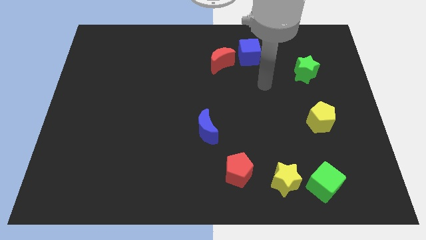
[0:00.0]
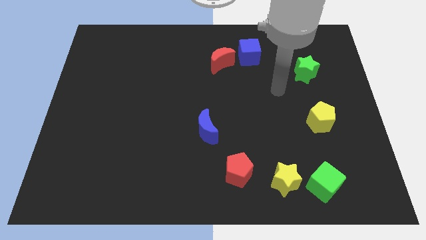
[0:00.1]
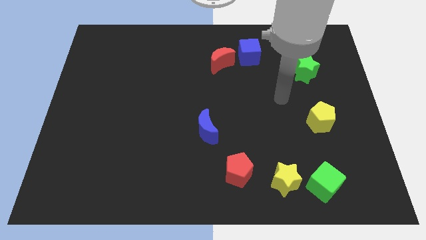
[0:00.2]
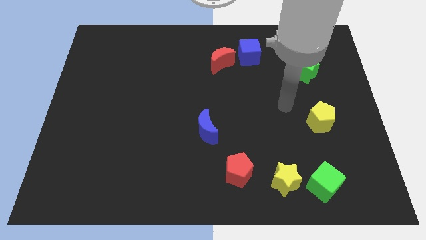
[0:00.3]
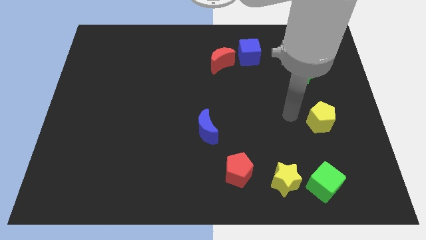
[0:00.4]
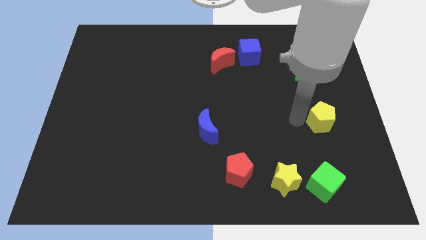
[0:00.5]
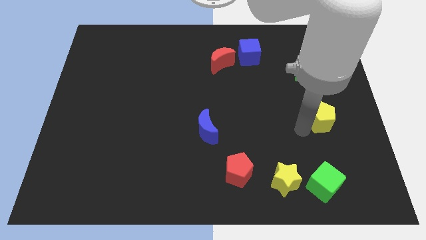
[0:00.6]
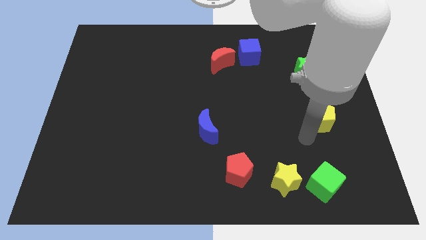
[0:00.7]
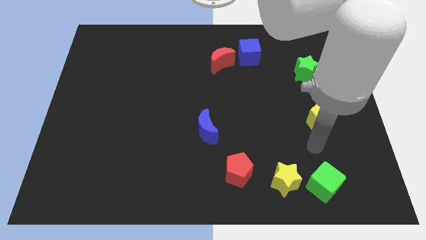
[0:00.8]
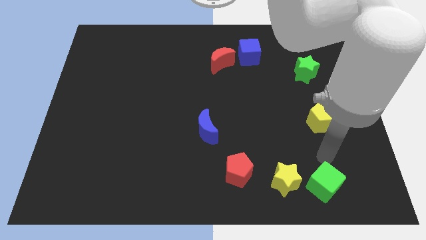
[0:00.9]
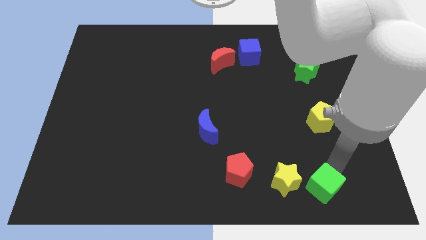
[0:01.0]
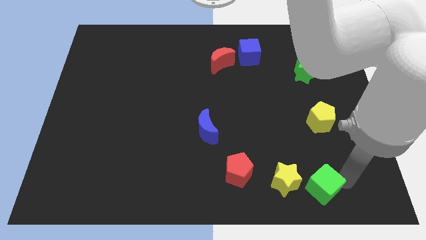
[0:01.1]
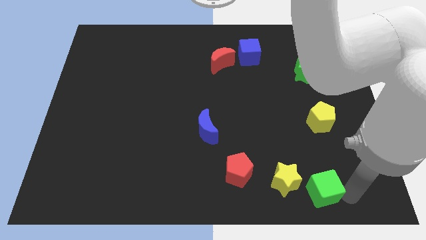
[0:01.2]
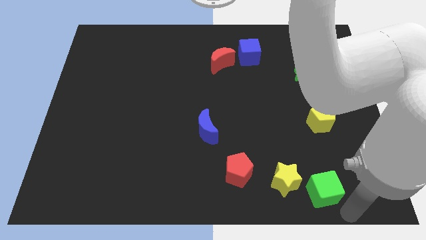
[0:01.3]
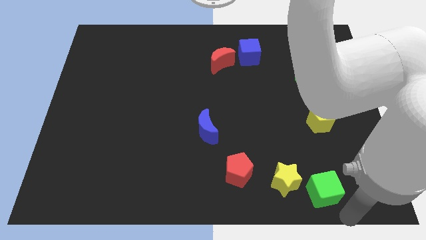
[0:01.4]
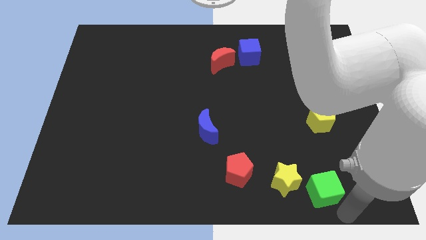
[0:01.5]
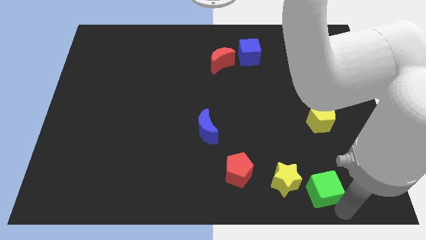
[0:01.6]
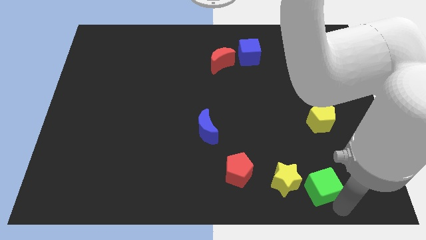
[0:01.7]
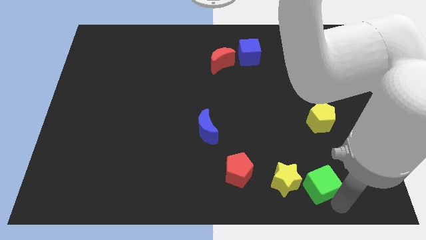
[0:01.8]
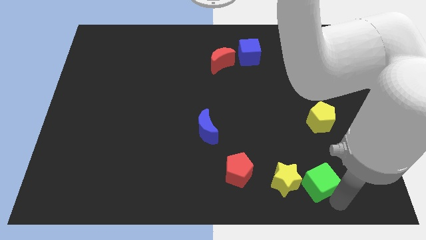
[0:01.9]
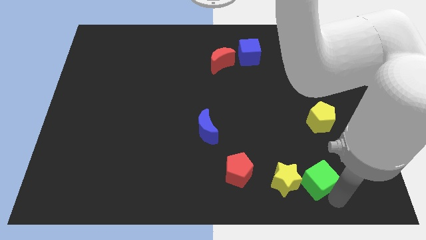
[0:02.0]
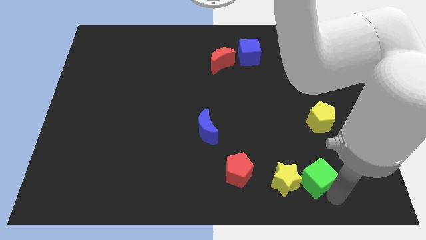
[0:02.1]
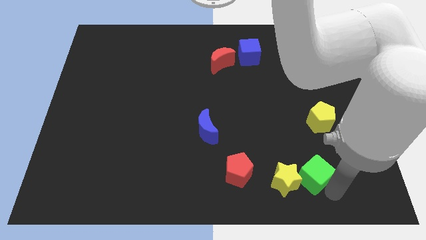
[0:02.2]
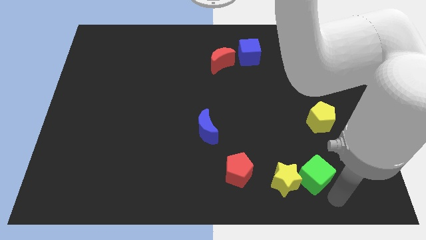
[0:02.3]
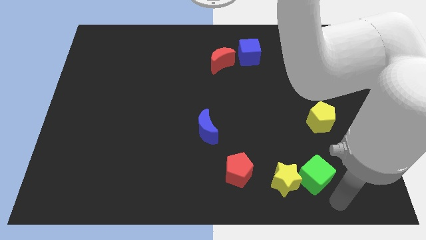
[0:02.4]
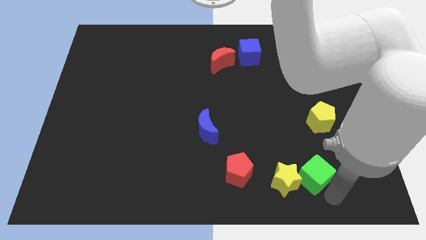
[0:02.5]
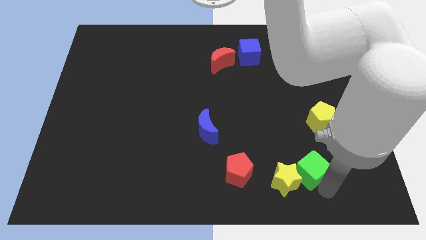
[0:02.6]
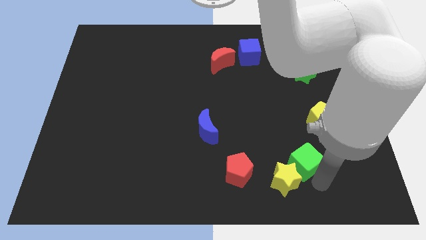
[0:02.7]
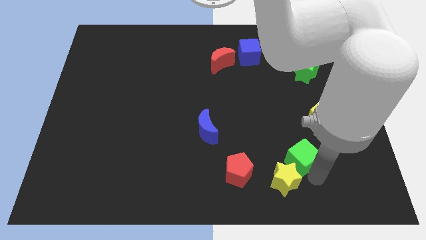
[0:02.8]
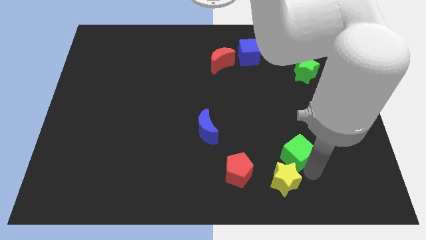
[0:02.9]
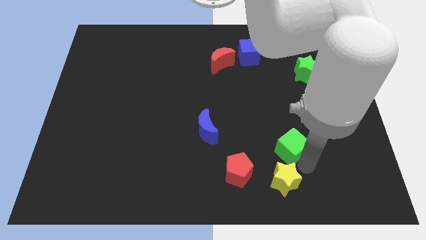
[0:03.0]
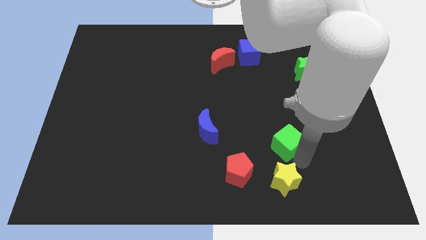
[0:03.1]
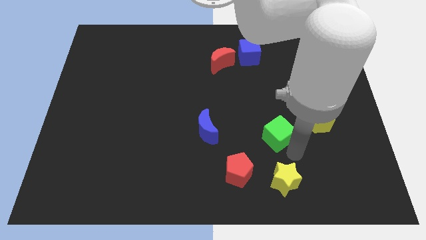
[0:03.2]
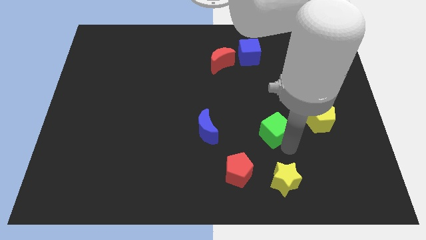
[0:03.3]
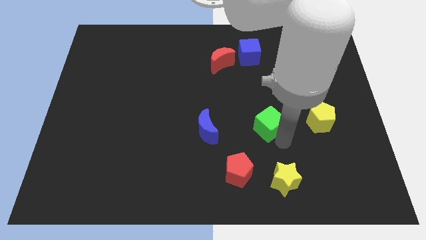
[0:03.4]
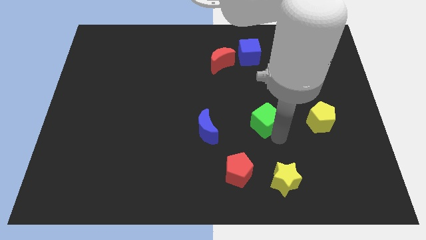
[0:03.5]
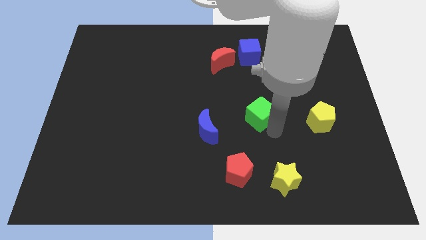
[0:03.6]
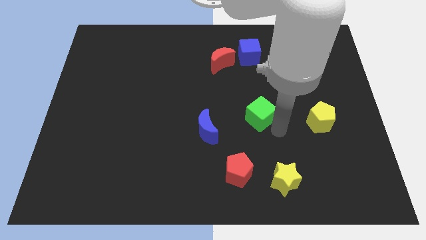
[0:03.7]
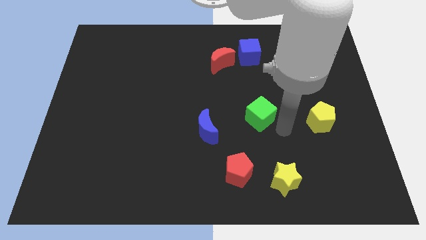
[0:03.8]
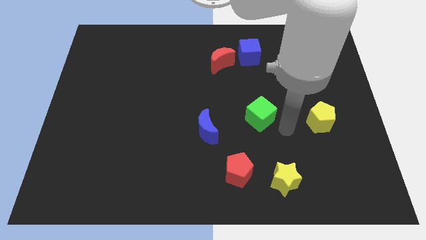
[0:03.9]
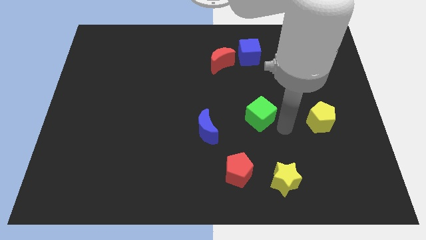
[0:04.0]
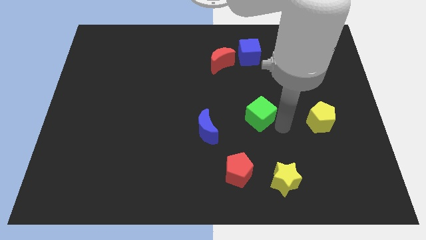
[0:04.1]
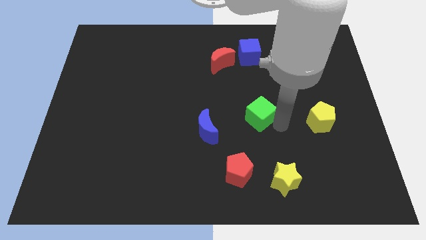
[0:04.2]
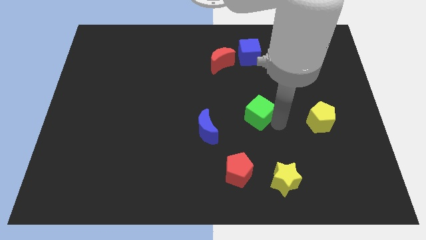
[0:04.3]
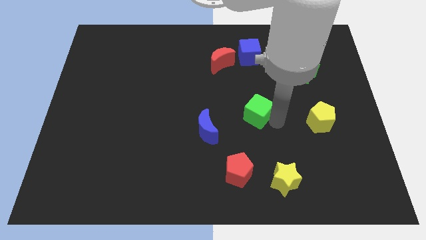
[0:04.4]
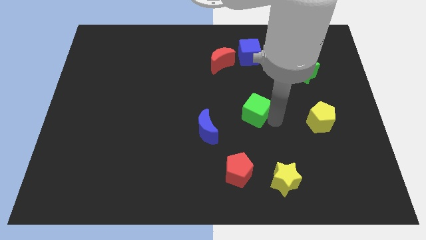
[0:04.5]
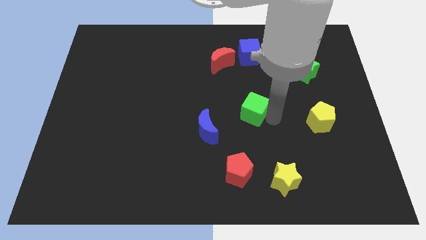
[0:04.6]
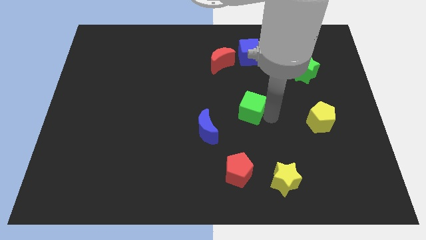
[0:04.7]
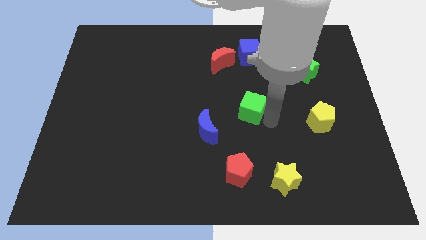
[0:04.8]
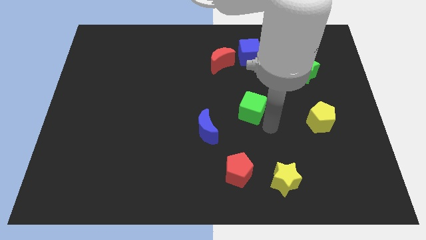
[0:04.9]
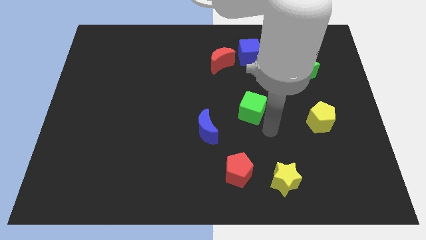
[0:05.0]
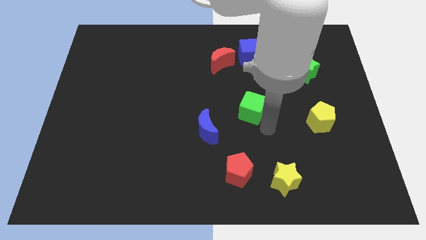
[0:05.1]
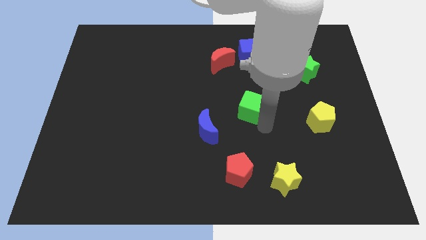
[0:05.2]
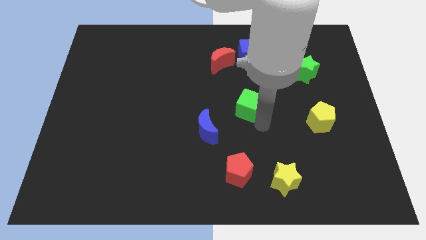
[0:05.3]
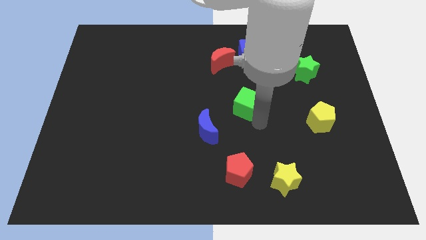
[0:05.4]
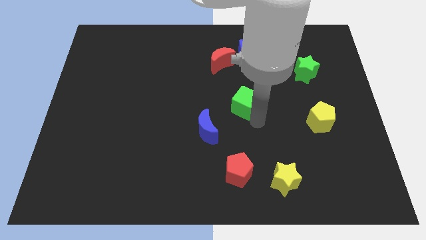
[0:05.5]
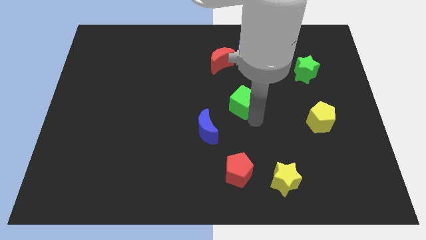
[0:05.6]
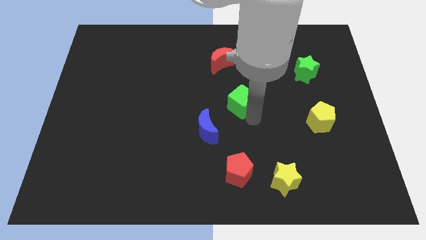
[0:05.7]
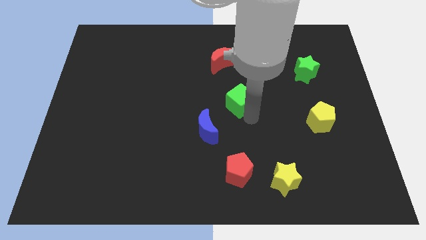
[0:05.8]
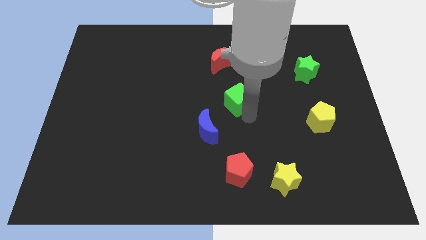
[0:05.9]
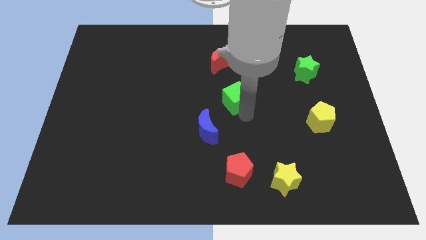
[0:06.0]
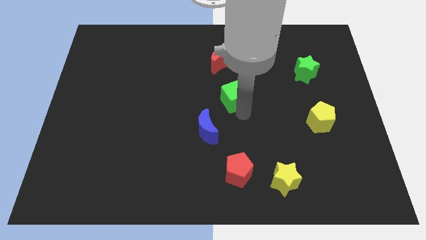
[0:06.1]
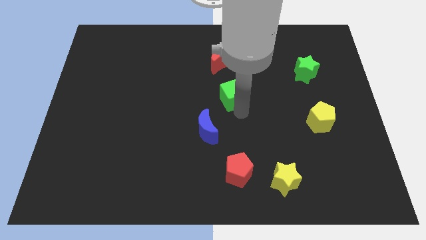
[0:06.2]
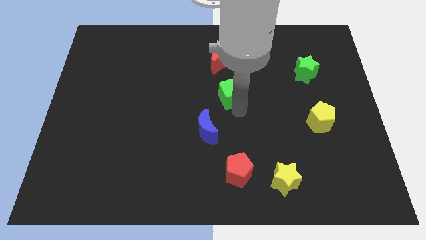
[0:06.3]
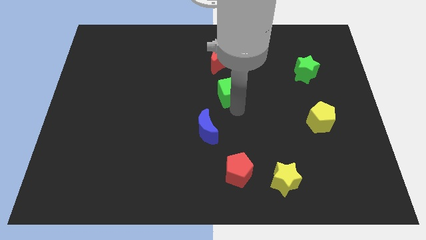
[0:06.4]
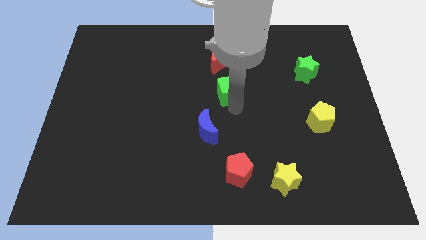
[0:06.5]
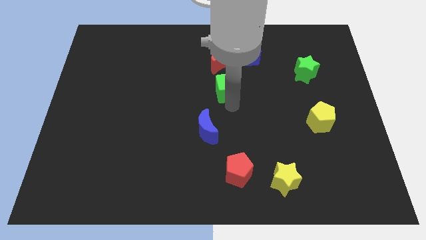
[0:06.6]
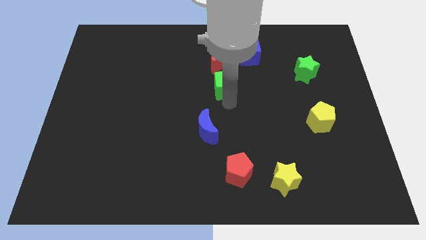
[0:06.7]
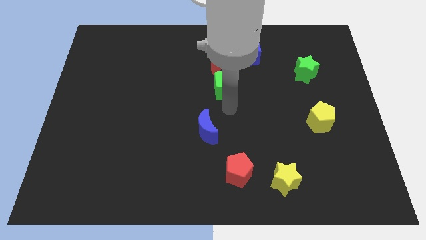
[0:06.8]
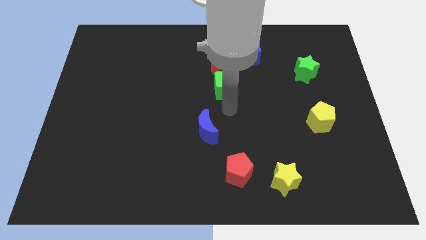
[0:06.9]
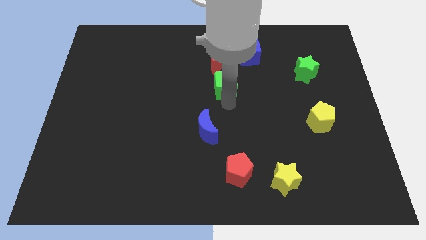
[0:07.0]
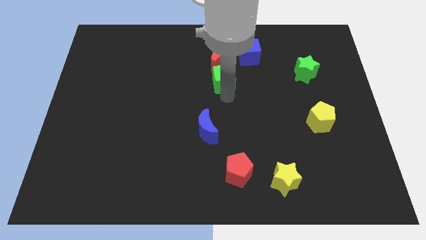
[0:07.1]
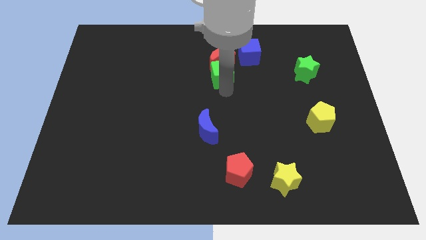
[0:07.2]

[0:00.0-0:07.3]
slide the green cube close to the red moon

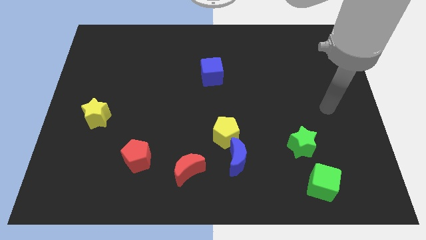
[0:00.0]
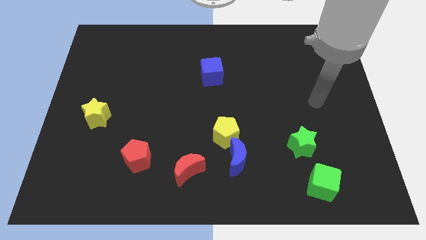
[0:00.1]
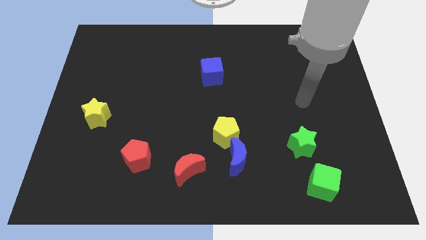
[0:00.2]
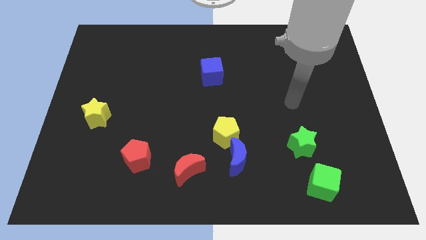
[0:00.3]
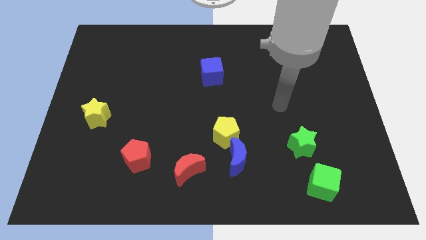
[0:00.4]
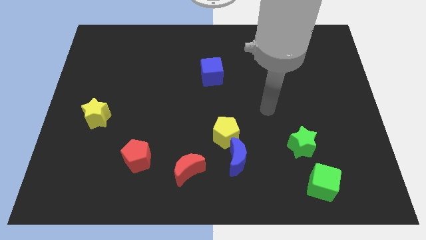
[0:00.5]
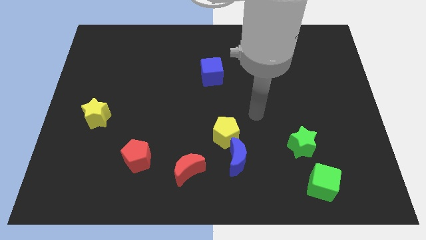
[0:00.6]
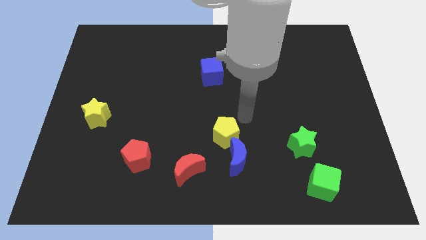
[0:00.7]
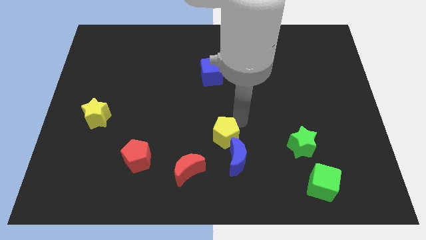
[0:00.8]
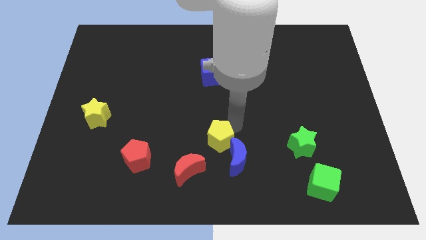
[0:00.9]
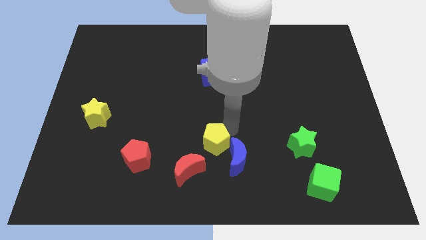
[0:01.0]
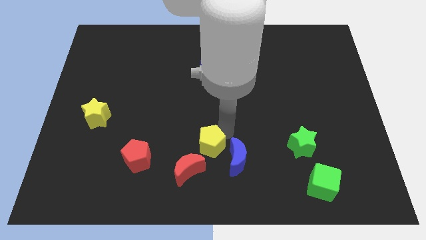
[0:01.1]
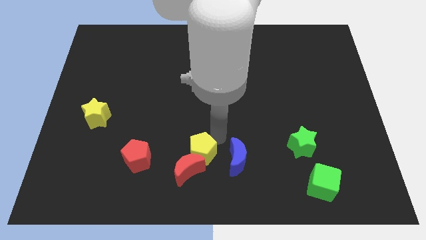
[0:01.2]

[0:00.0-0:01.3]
push the yellow pentagon next to the red moon
